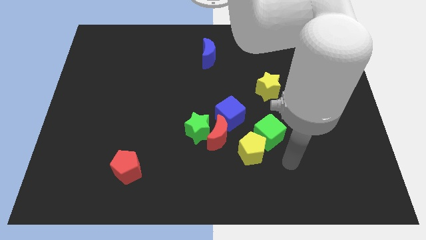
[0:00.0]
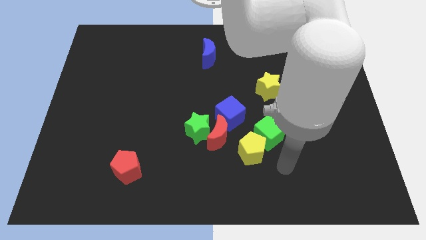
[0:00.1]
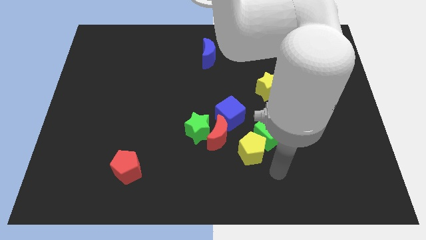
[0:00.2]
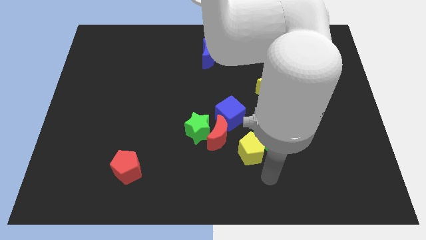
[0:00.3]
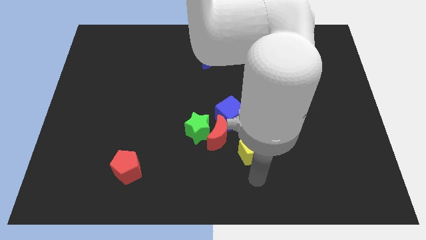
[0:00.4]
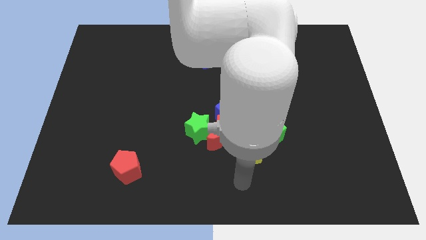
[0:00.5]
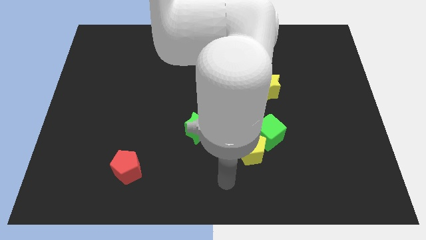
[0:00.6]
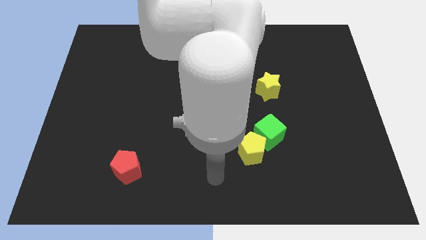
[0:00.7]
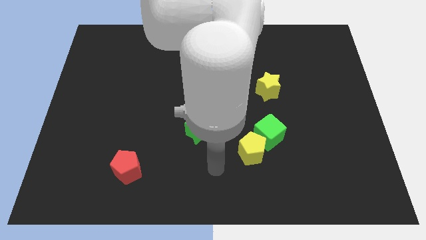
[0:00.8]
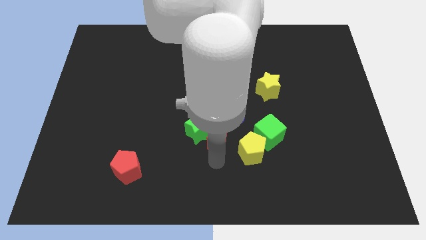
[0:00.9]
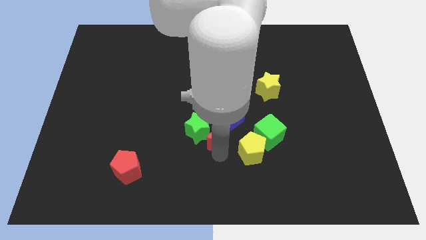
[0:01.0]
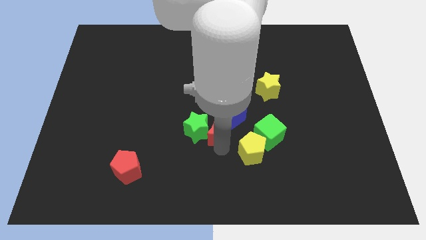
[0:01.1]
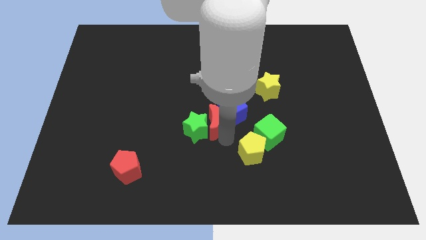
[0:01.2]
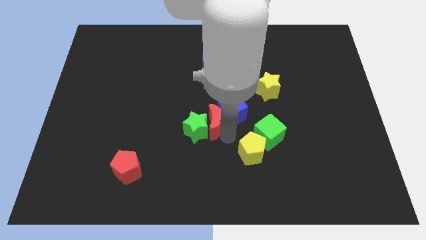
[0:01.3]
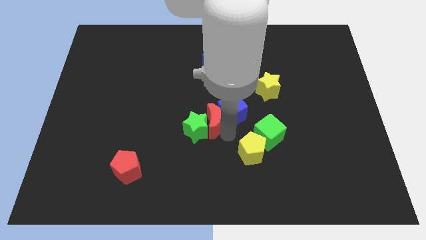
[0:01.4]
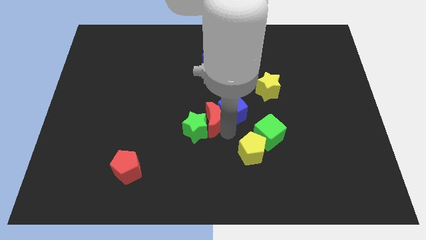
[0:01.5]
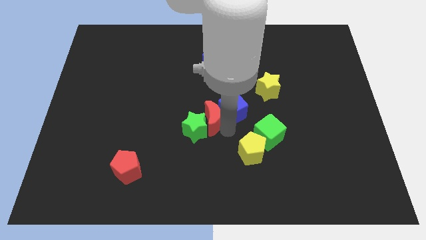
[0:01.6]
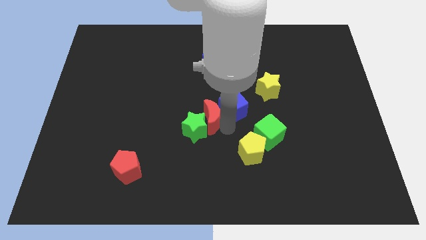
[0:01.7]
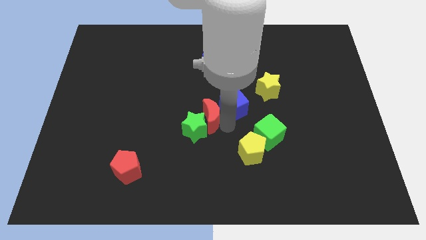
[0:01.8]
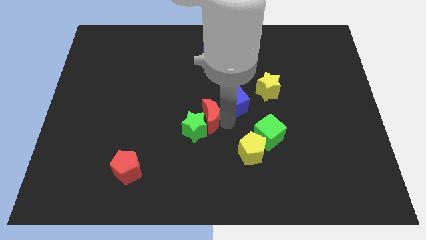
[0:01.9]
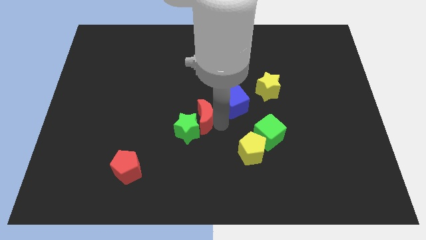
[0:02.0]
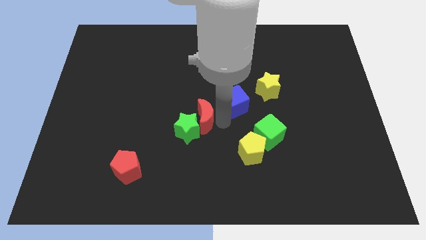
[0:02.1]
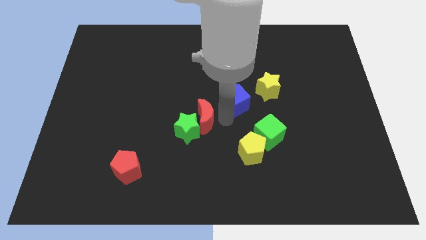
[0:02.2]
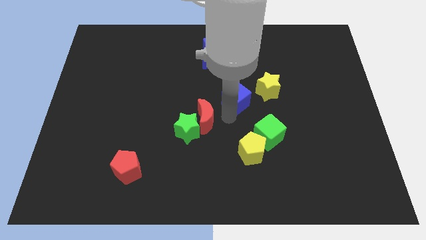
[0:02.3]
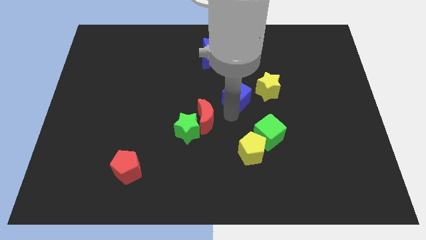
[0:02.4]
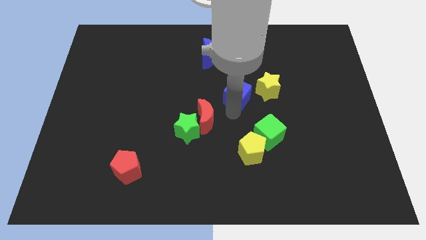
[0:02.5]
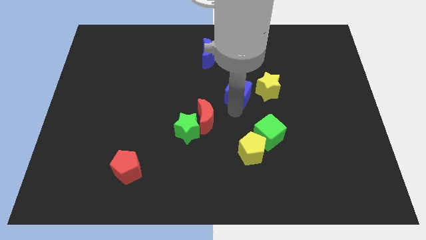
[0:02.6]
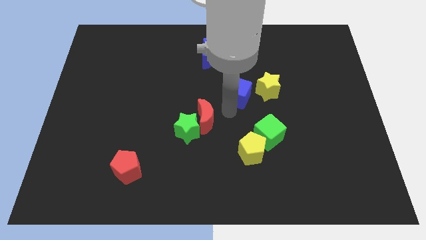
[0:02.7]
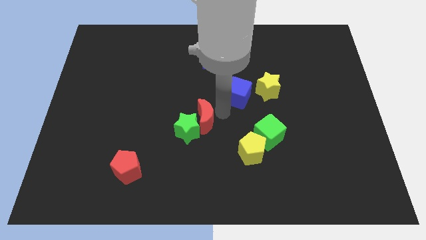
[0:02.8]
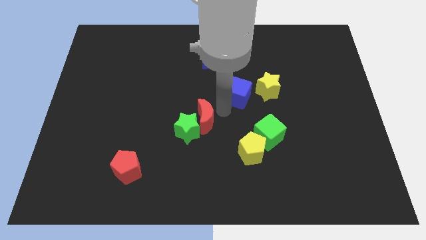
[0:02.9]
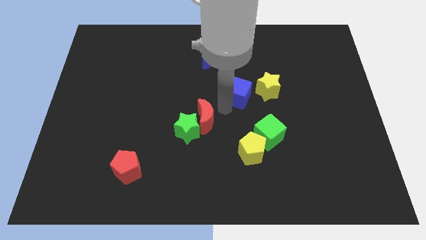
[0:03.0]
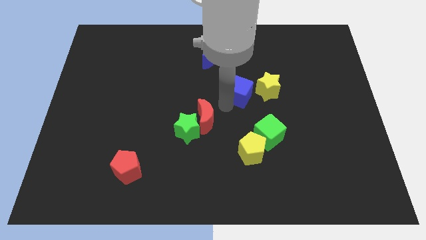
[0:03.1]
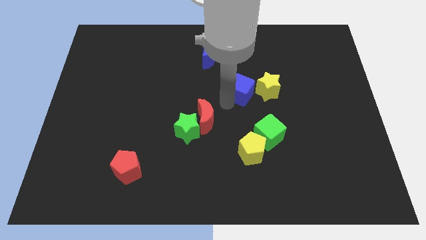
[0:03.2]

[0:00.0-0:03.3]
push the blue cube upwards and to the right slightly

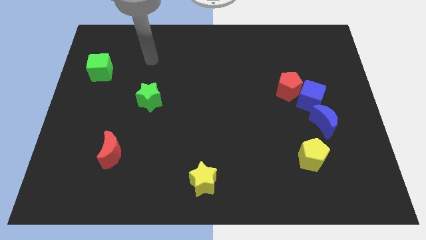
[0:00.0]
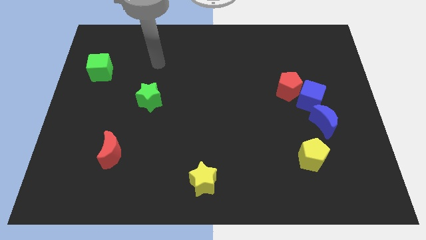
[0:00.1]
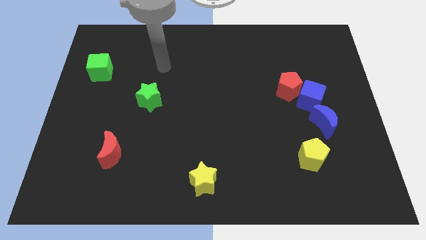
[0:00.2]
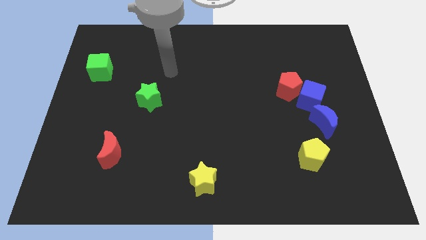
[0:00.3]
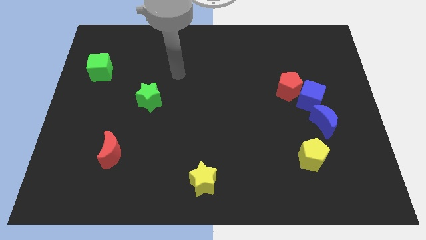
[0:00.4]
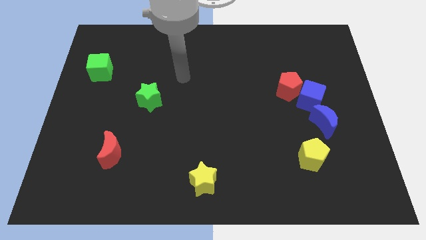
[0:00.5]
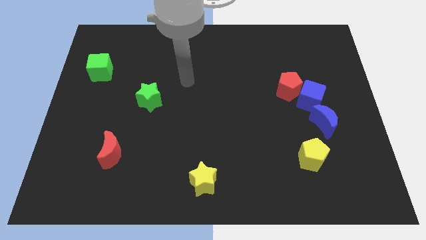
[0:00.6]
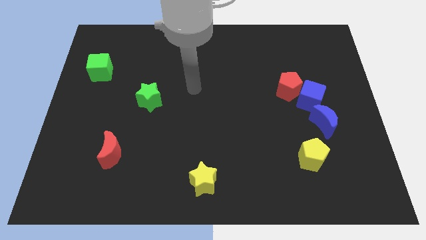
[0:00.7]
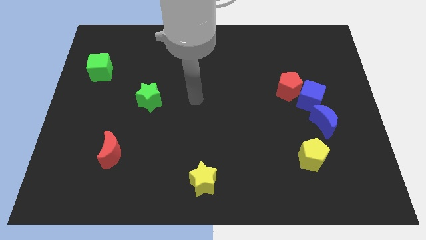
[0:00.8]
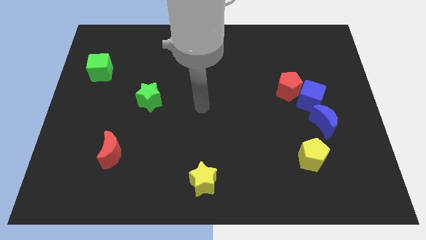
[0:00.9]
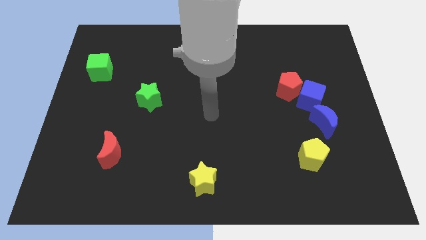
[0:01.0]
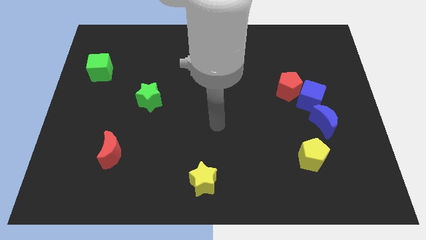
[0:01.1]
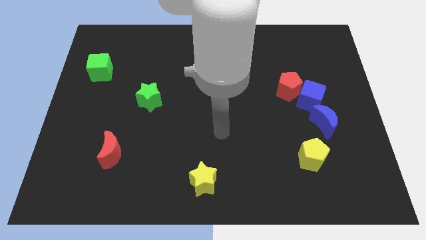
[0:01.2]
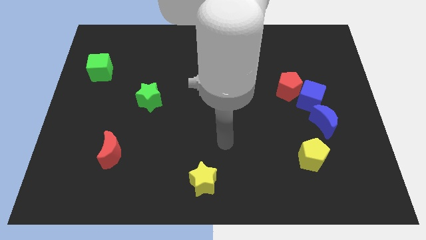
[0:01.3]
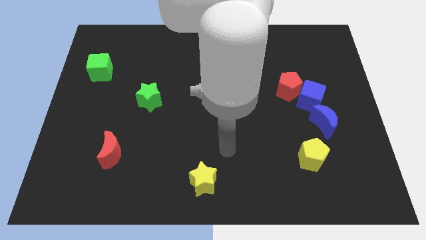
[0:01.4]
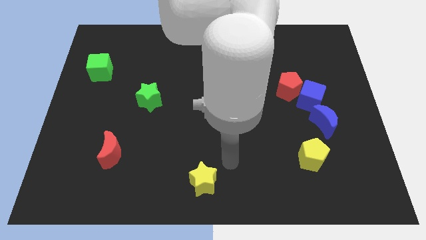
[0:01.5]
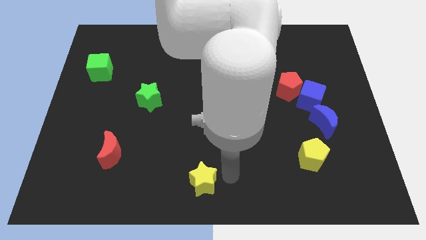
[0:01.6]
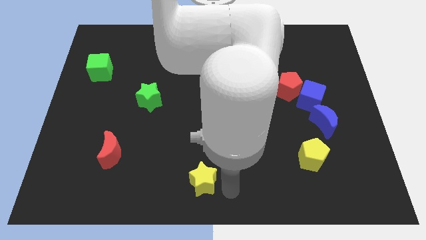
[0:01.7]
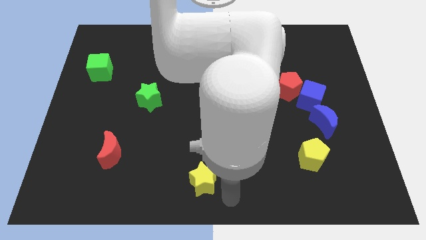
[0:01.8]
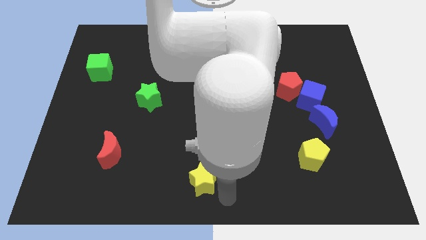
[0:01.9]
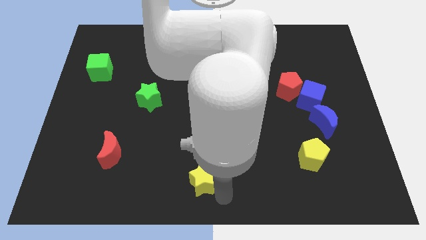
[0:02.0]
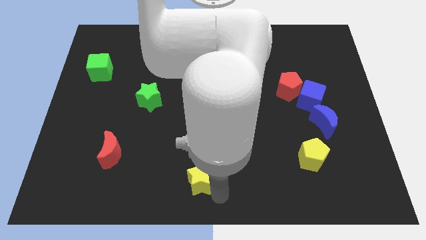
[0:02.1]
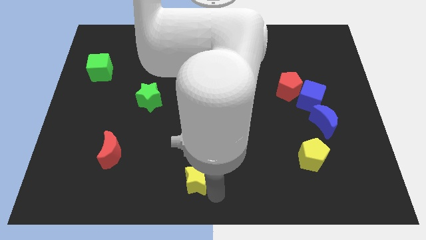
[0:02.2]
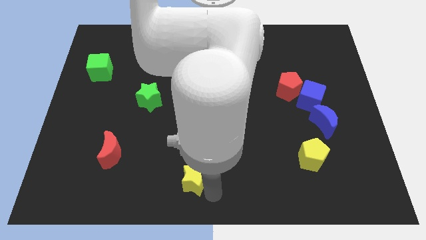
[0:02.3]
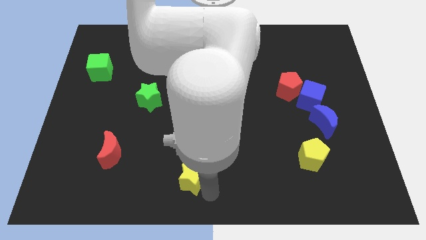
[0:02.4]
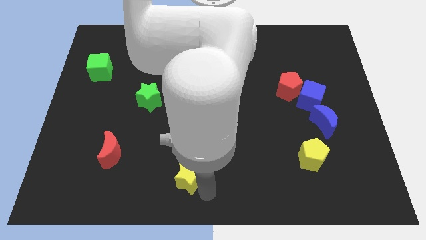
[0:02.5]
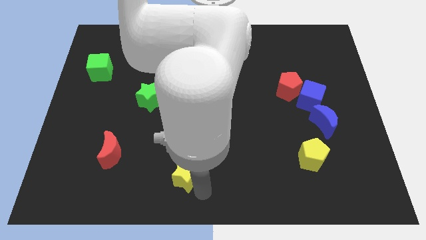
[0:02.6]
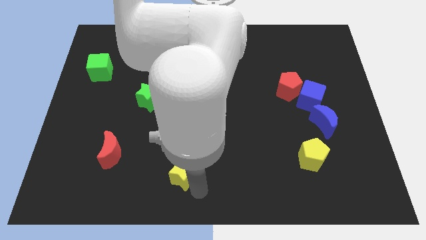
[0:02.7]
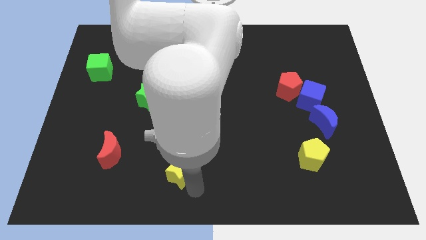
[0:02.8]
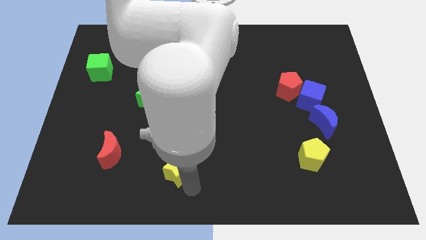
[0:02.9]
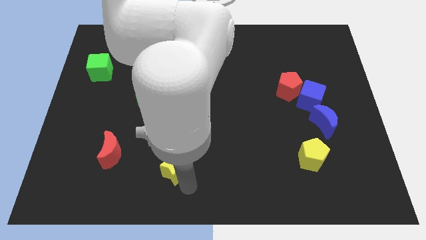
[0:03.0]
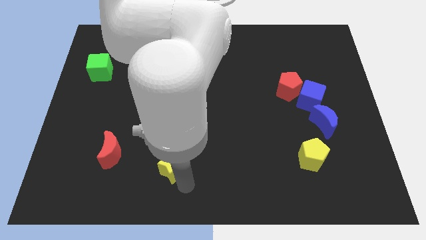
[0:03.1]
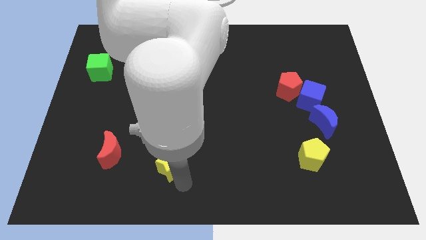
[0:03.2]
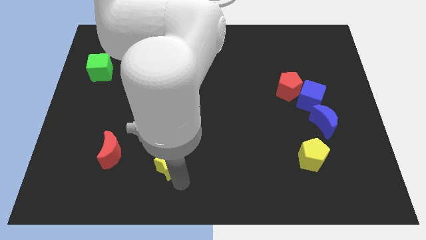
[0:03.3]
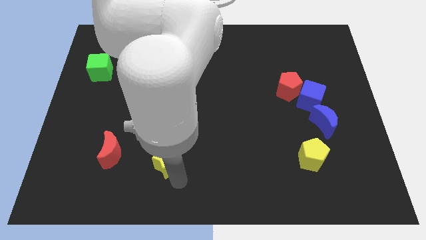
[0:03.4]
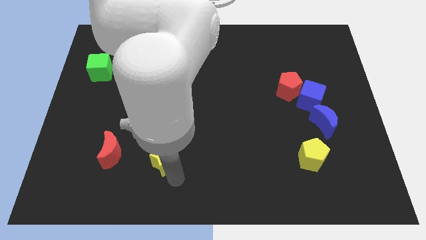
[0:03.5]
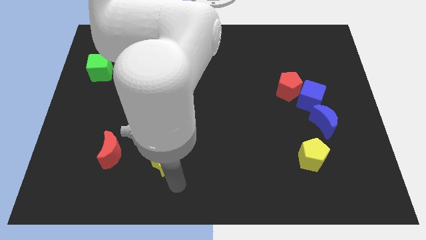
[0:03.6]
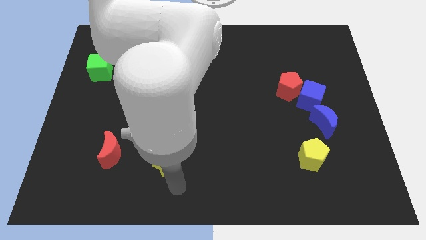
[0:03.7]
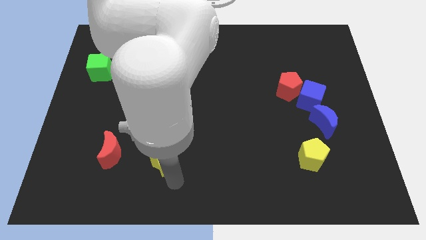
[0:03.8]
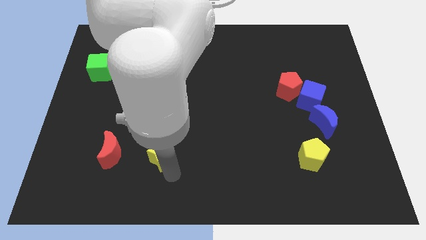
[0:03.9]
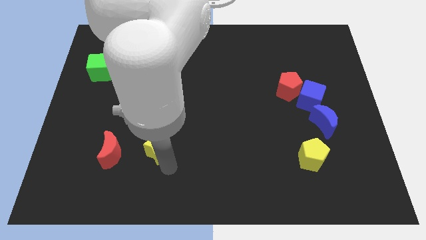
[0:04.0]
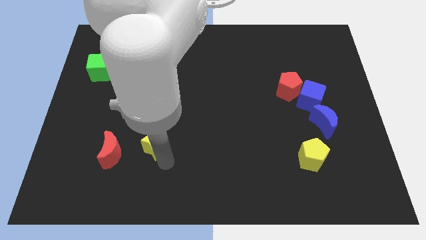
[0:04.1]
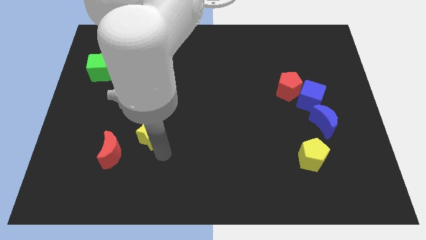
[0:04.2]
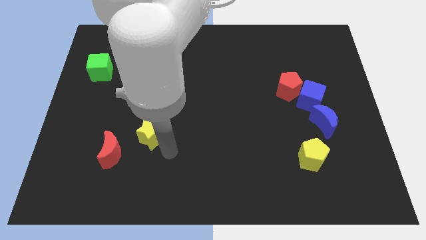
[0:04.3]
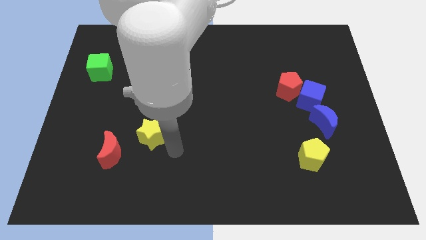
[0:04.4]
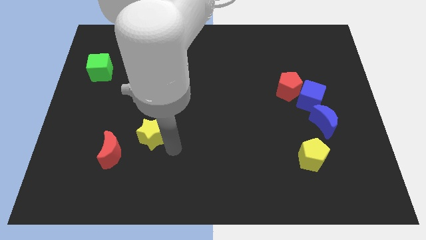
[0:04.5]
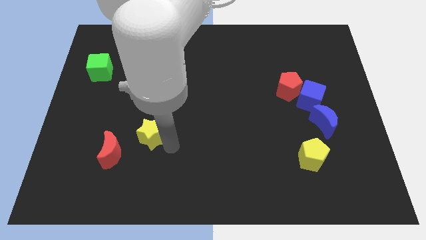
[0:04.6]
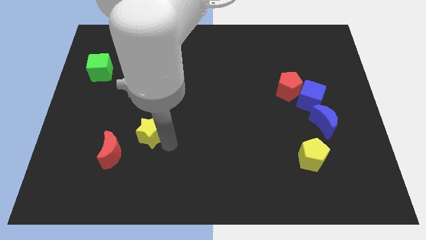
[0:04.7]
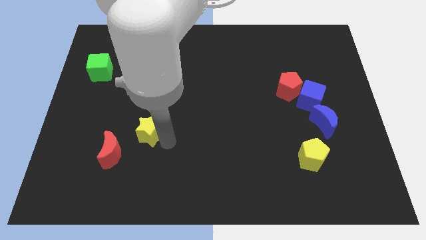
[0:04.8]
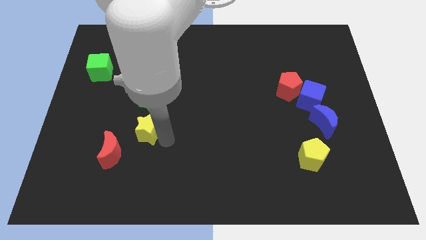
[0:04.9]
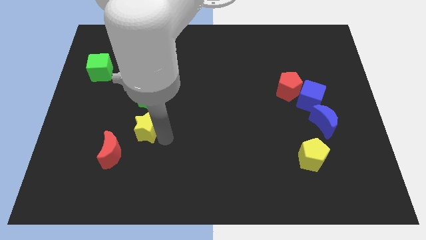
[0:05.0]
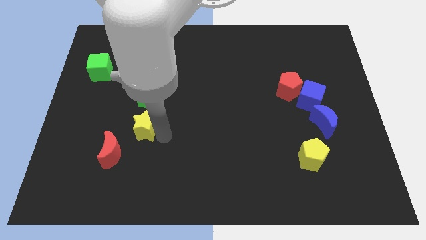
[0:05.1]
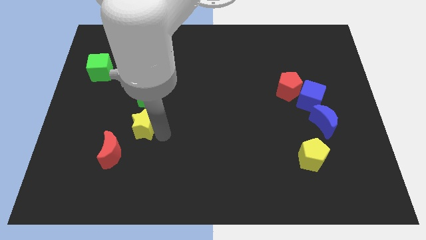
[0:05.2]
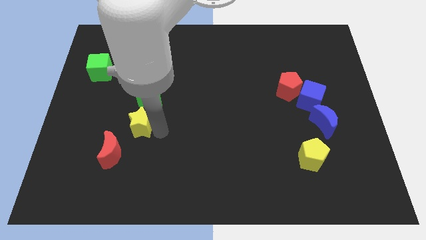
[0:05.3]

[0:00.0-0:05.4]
move the yellow star up and to the left diagonally
